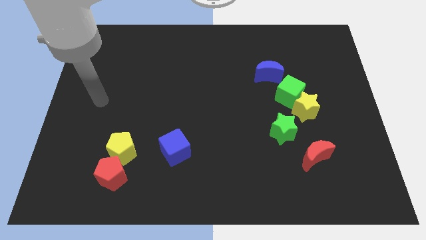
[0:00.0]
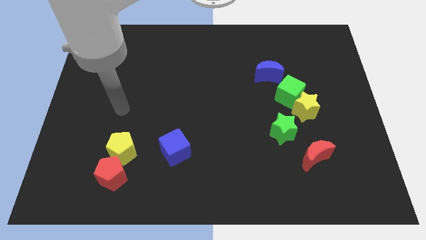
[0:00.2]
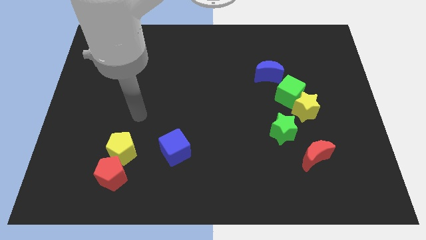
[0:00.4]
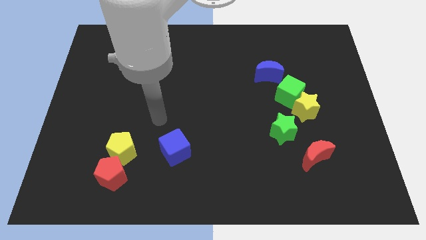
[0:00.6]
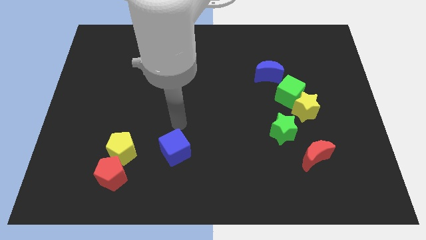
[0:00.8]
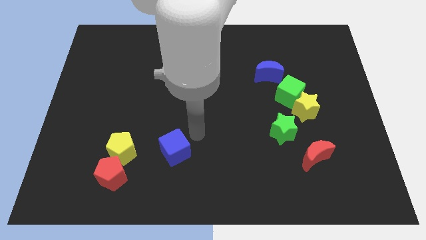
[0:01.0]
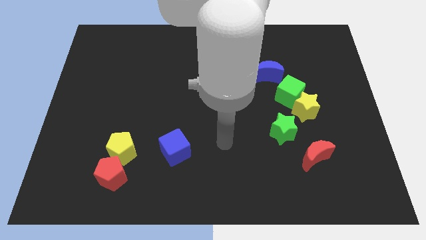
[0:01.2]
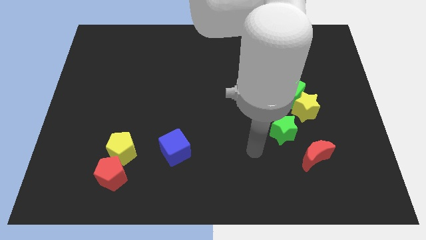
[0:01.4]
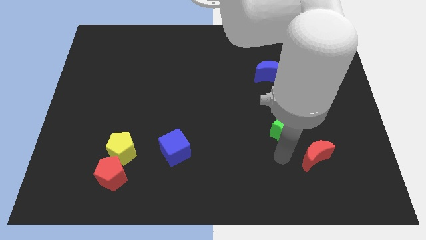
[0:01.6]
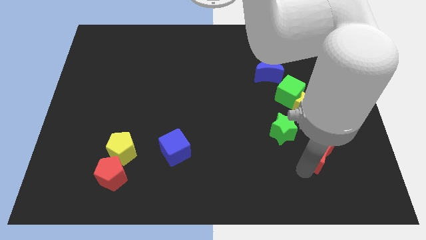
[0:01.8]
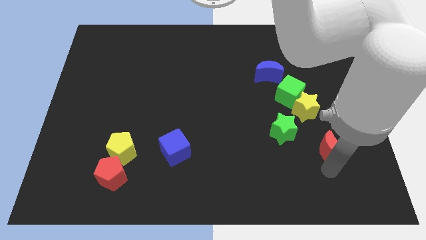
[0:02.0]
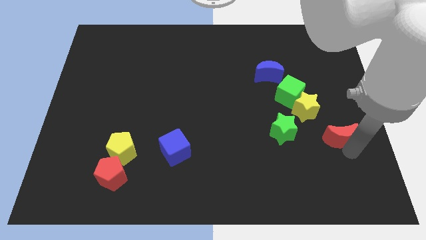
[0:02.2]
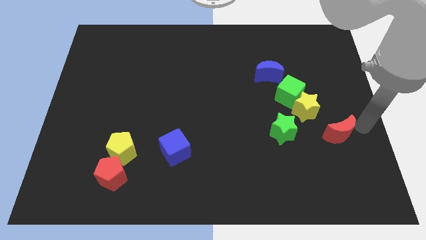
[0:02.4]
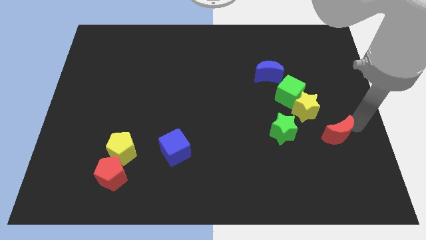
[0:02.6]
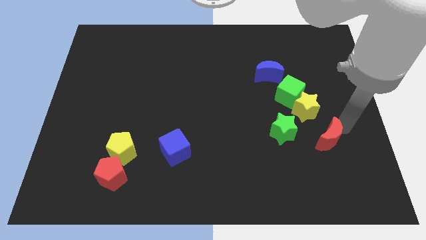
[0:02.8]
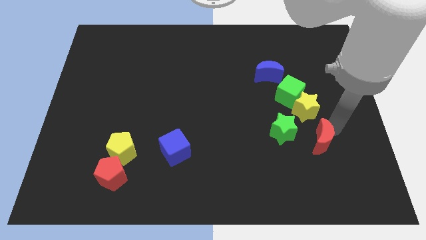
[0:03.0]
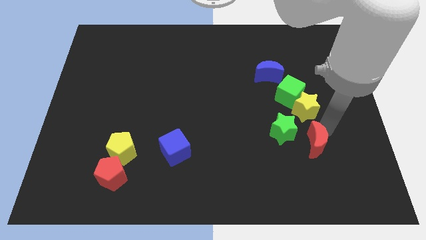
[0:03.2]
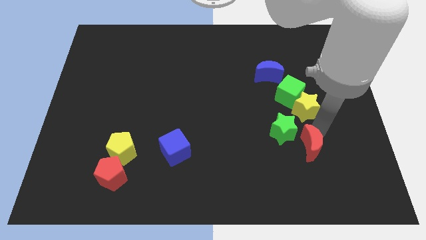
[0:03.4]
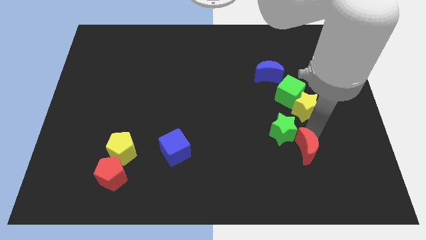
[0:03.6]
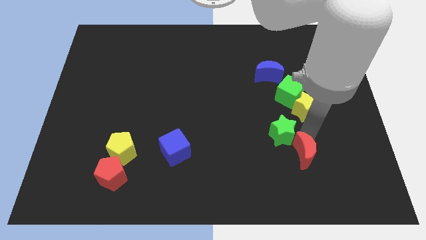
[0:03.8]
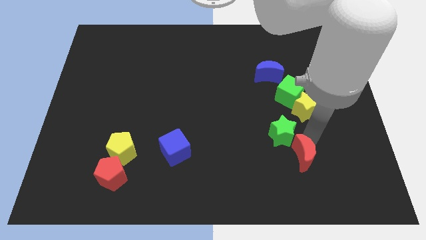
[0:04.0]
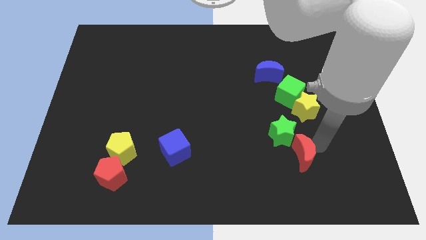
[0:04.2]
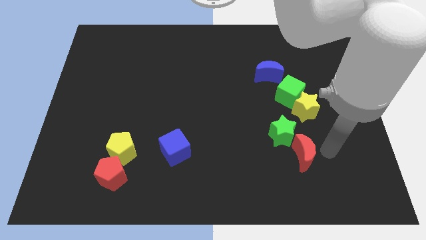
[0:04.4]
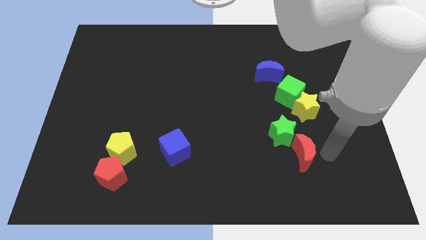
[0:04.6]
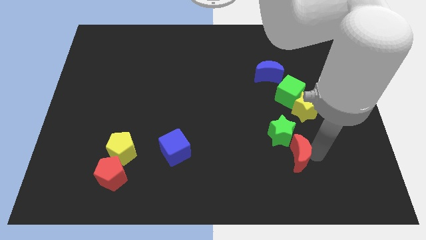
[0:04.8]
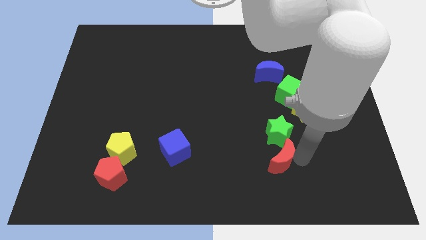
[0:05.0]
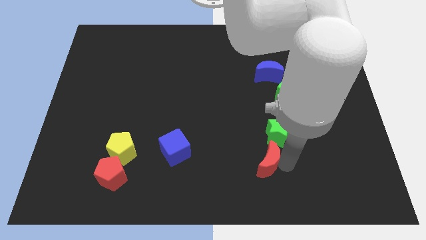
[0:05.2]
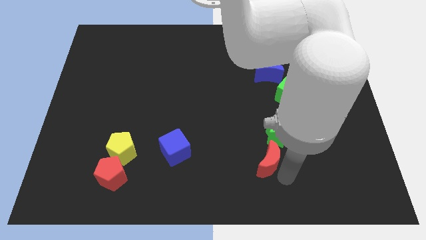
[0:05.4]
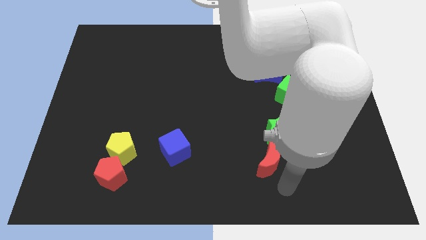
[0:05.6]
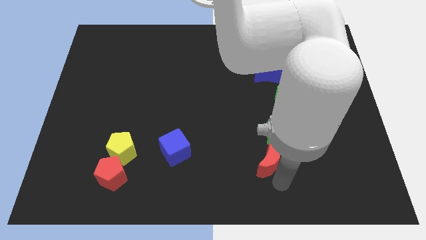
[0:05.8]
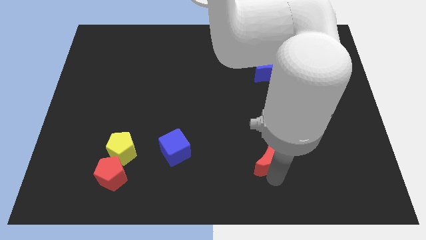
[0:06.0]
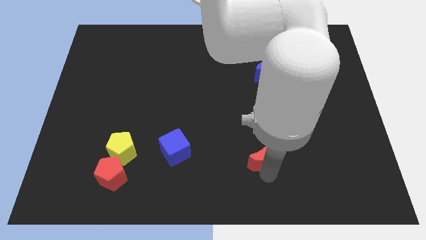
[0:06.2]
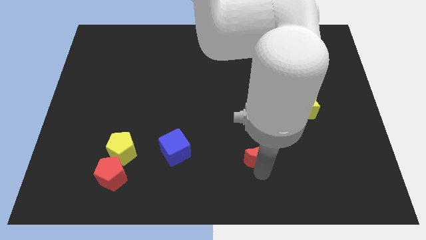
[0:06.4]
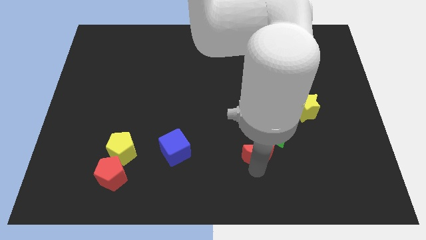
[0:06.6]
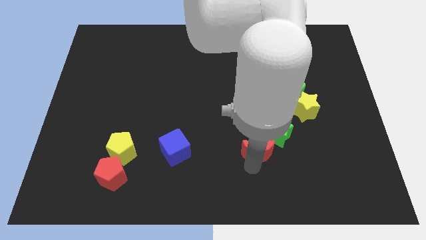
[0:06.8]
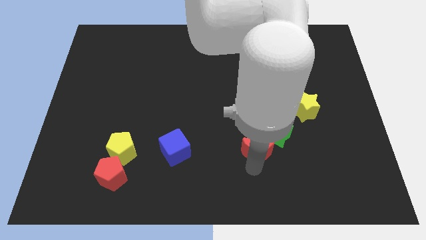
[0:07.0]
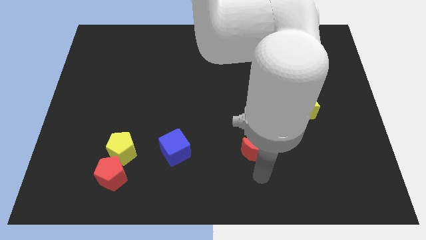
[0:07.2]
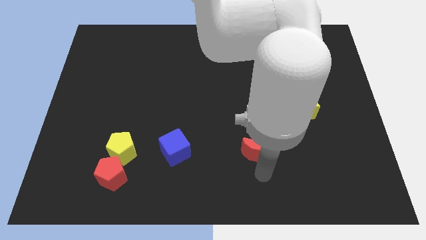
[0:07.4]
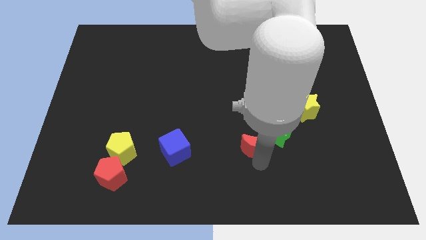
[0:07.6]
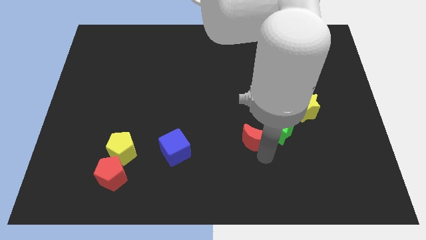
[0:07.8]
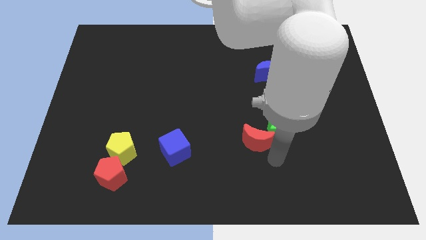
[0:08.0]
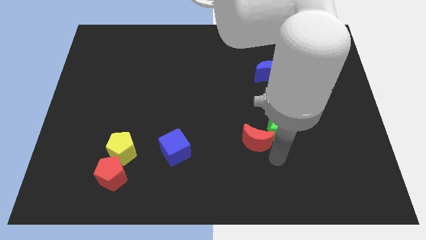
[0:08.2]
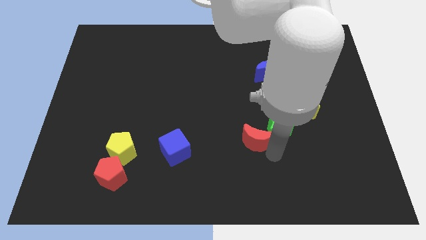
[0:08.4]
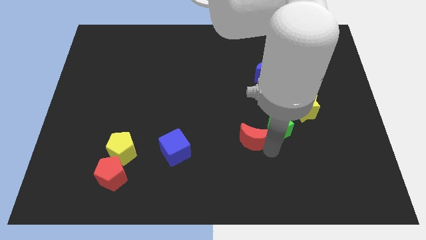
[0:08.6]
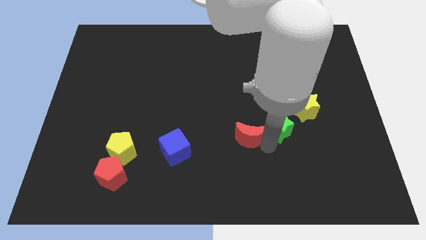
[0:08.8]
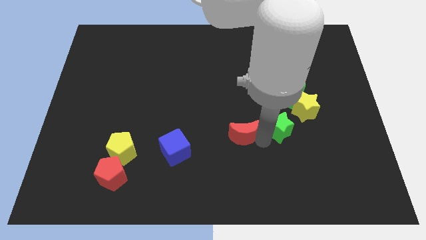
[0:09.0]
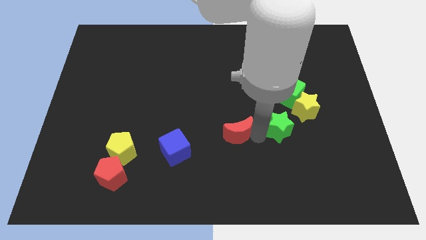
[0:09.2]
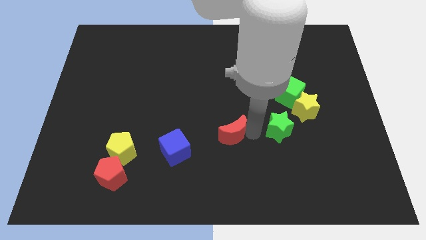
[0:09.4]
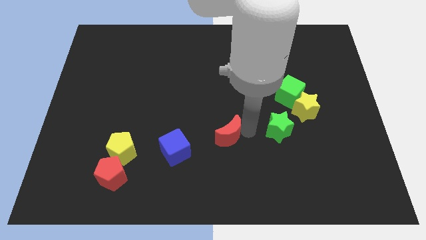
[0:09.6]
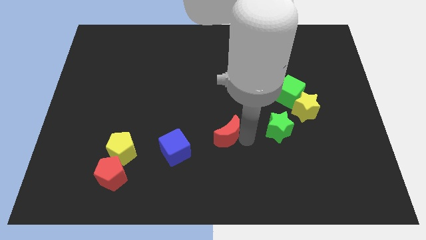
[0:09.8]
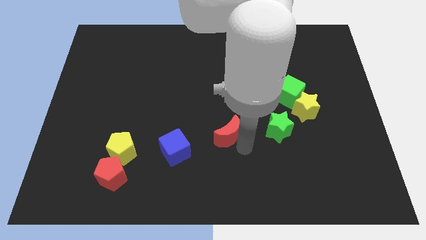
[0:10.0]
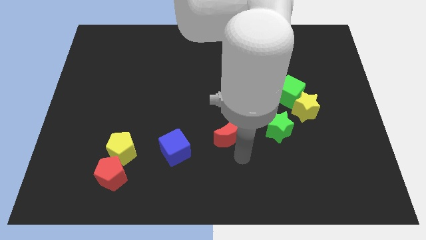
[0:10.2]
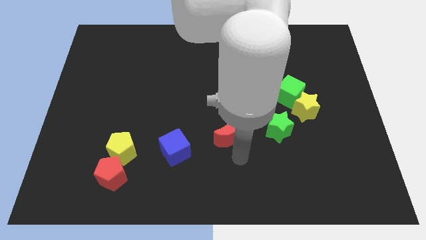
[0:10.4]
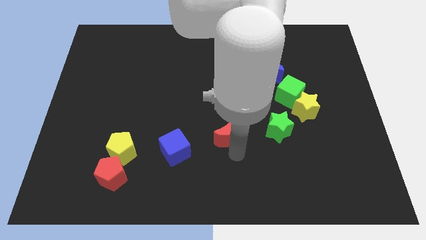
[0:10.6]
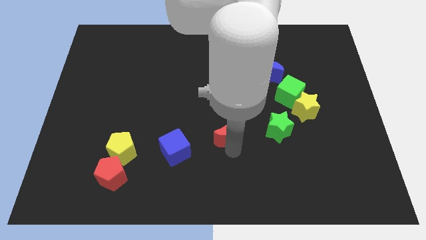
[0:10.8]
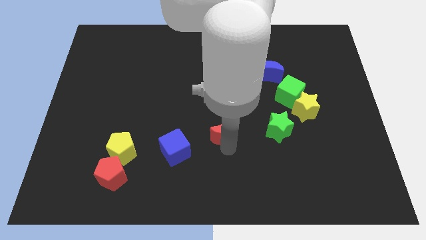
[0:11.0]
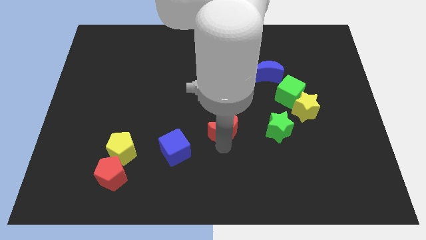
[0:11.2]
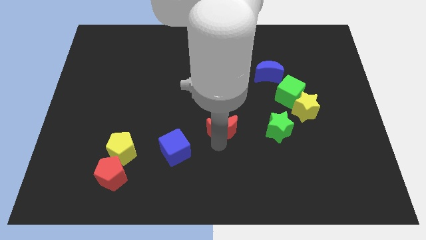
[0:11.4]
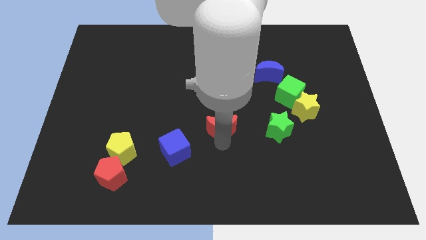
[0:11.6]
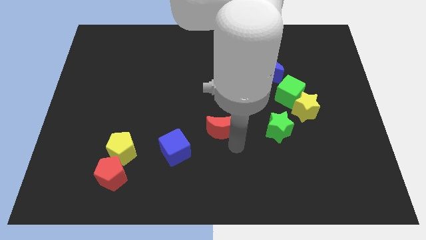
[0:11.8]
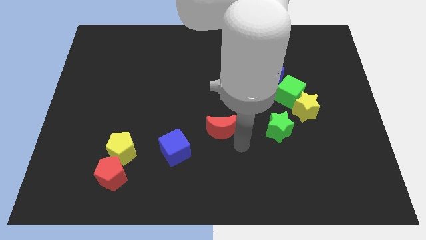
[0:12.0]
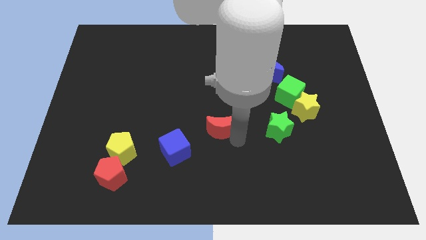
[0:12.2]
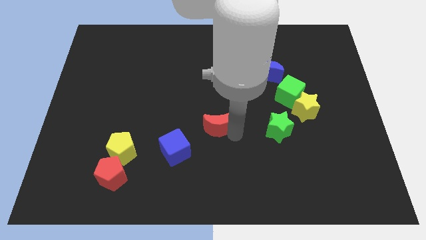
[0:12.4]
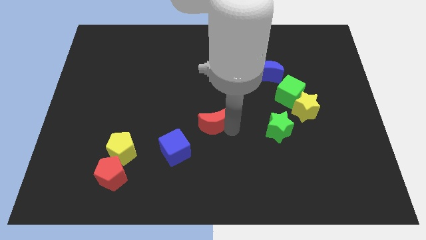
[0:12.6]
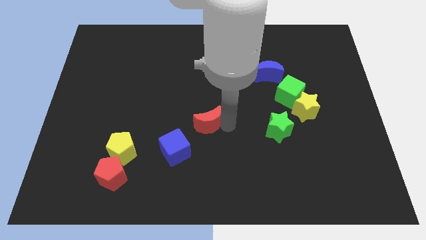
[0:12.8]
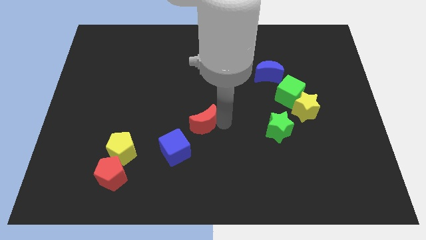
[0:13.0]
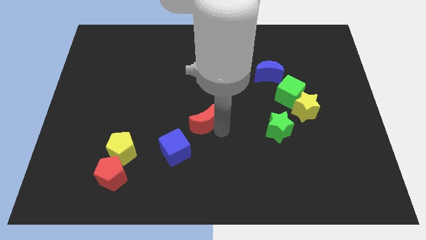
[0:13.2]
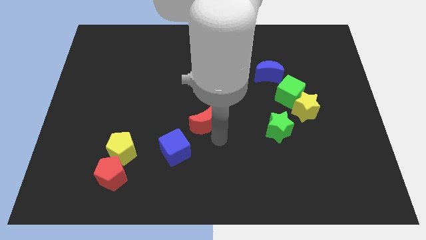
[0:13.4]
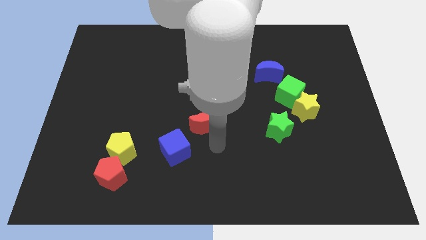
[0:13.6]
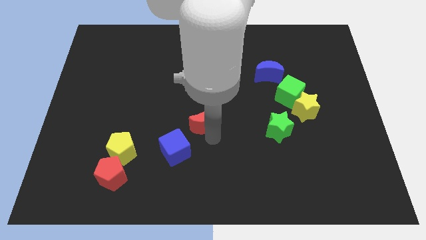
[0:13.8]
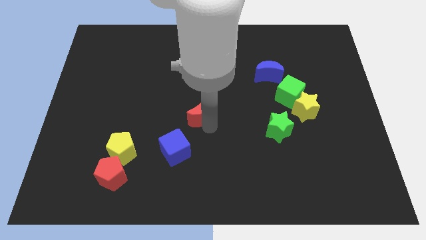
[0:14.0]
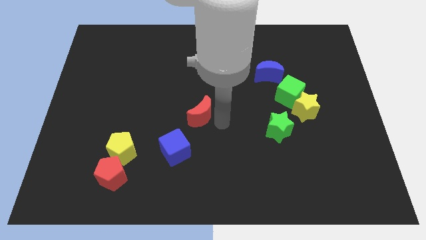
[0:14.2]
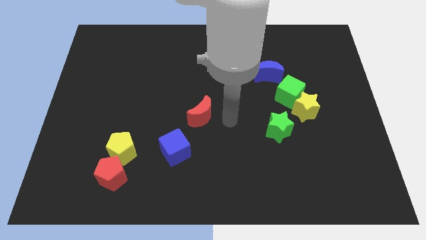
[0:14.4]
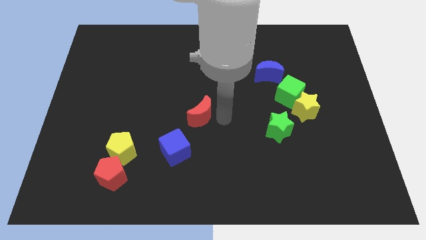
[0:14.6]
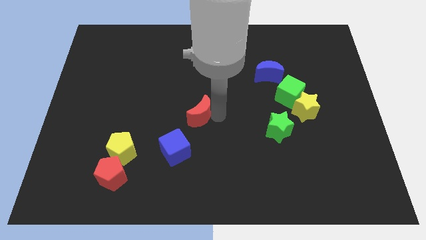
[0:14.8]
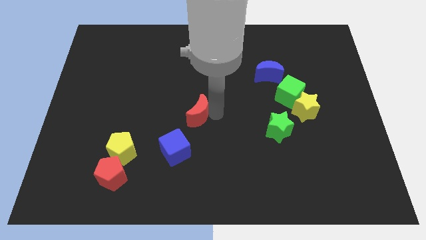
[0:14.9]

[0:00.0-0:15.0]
push the red moon to the top of the blue cube
